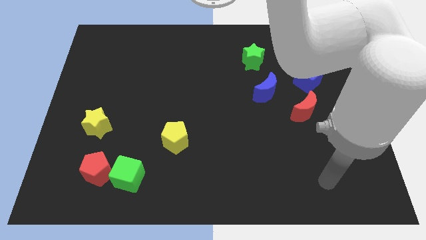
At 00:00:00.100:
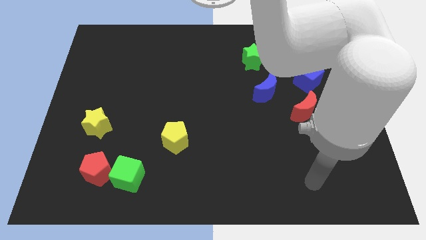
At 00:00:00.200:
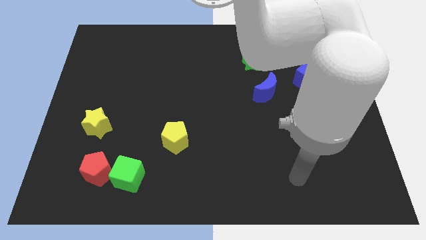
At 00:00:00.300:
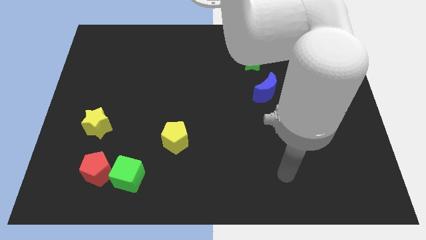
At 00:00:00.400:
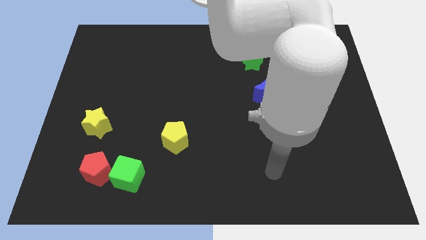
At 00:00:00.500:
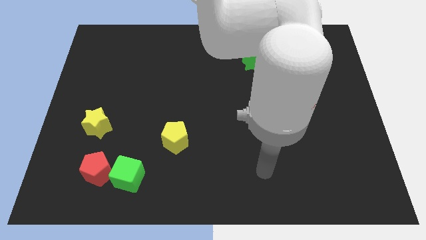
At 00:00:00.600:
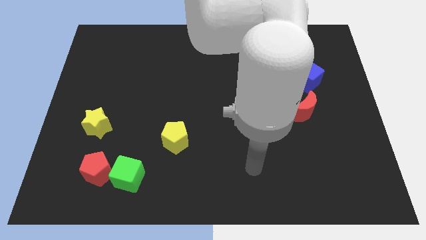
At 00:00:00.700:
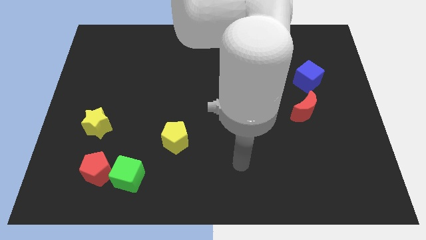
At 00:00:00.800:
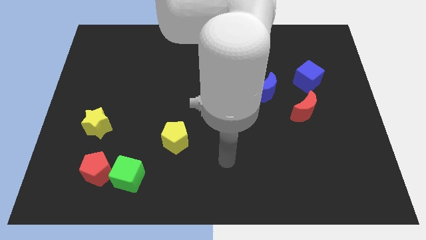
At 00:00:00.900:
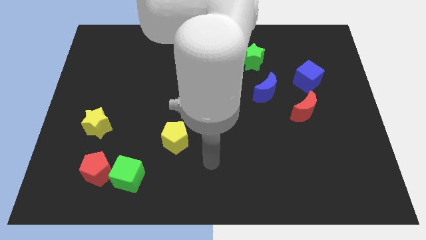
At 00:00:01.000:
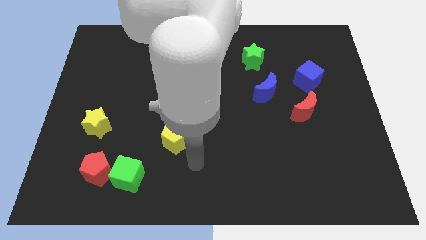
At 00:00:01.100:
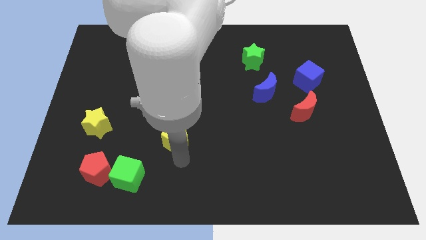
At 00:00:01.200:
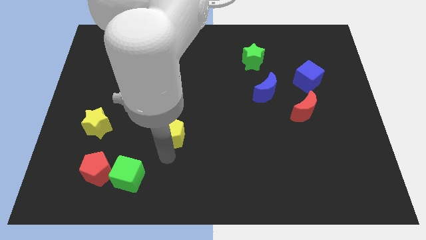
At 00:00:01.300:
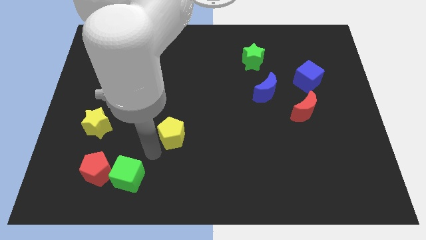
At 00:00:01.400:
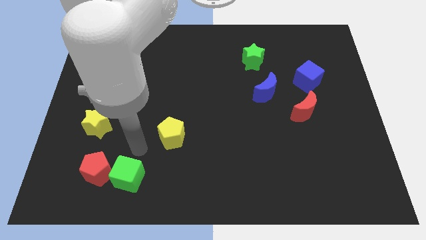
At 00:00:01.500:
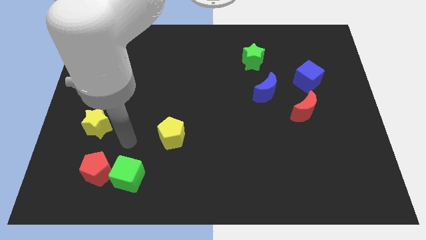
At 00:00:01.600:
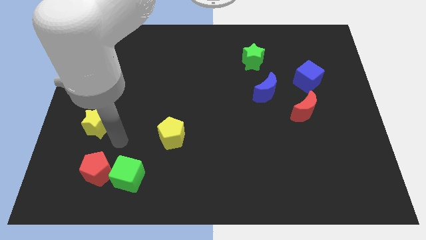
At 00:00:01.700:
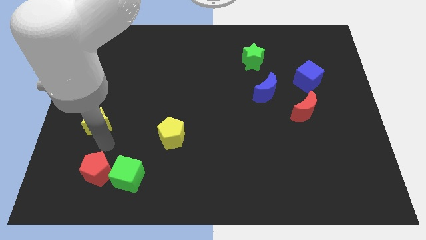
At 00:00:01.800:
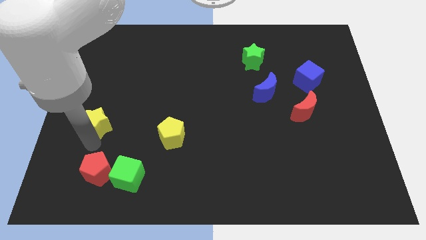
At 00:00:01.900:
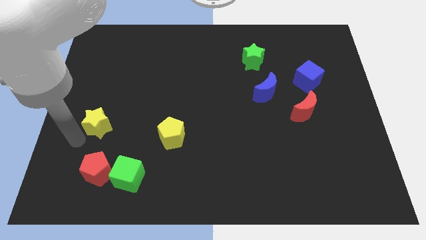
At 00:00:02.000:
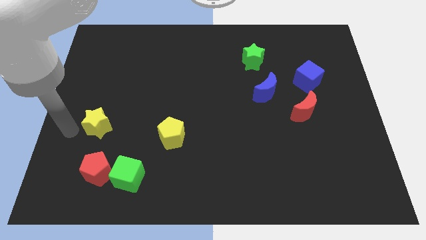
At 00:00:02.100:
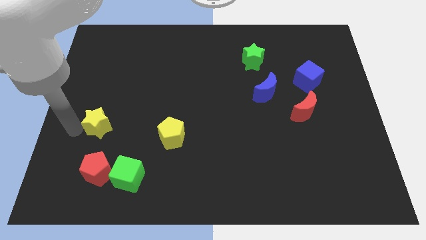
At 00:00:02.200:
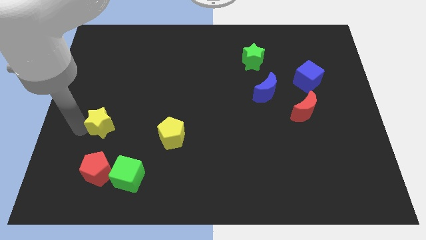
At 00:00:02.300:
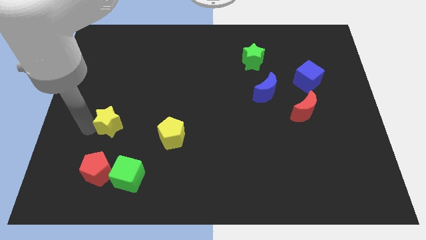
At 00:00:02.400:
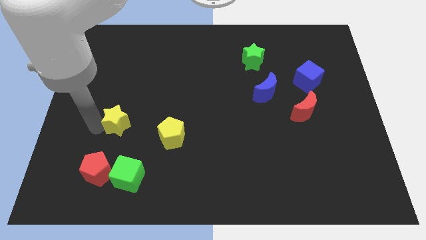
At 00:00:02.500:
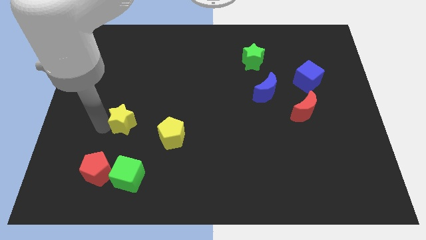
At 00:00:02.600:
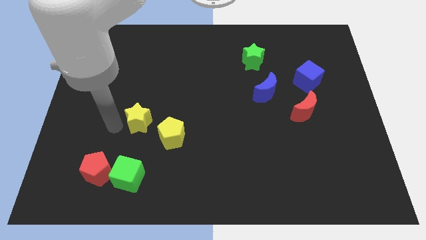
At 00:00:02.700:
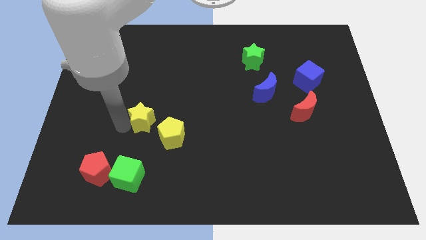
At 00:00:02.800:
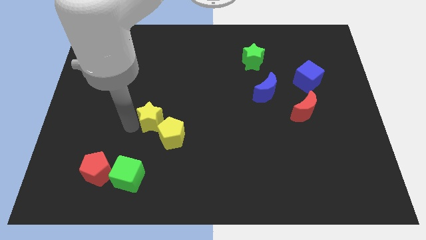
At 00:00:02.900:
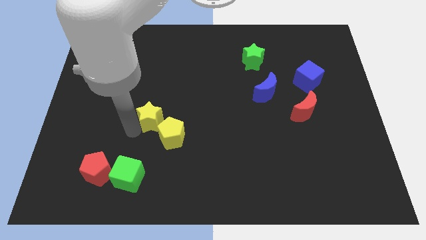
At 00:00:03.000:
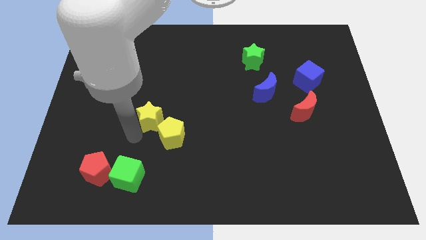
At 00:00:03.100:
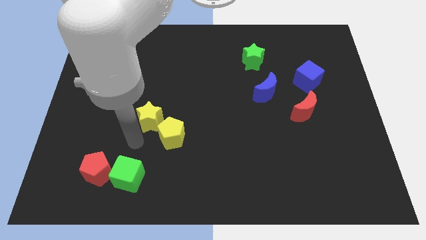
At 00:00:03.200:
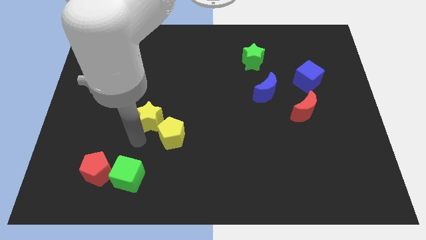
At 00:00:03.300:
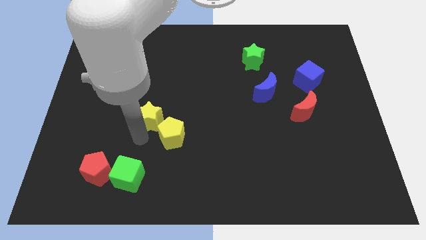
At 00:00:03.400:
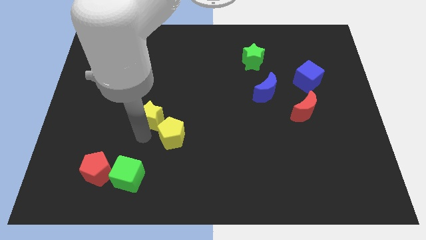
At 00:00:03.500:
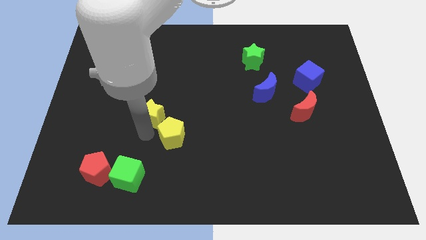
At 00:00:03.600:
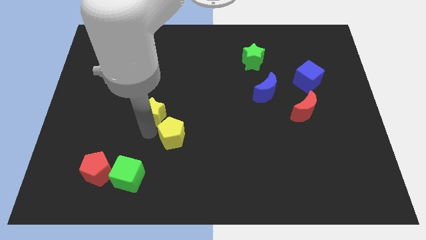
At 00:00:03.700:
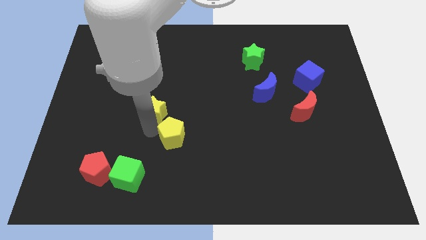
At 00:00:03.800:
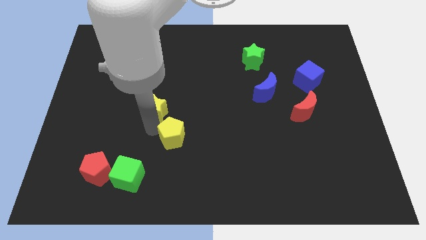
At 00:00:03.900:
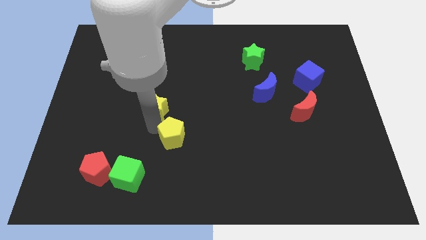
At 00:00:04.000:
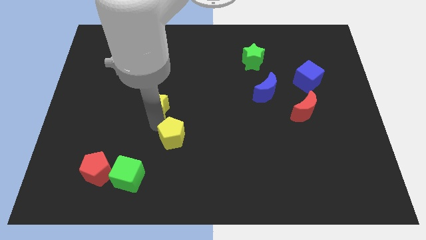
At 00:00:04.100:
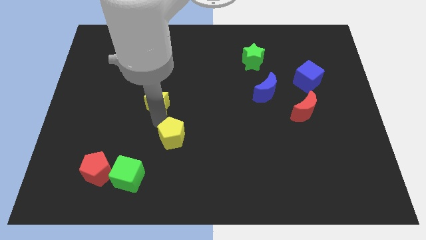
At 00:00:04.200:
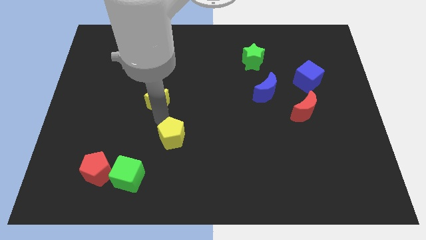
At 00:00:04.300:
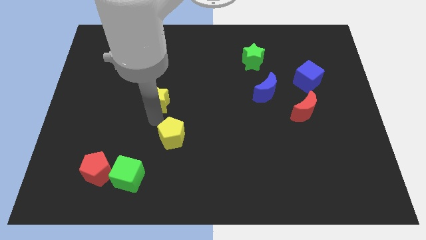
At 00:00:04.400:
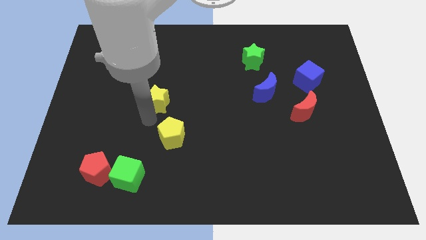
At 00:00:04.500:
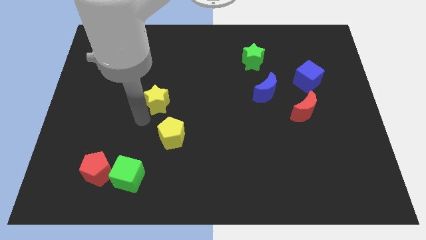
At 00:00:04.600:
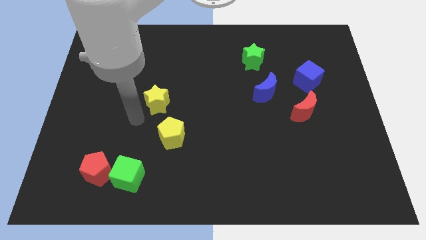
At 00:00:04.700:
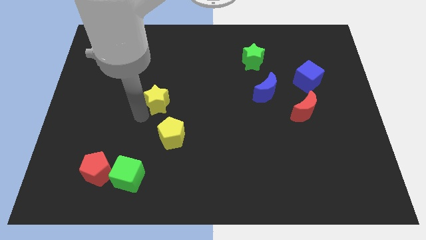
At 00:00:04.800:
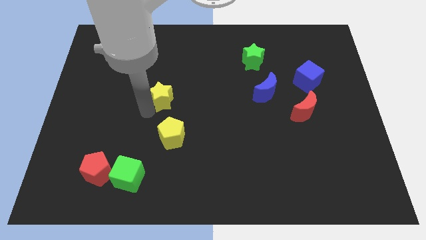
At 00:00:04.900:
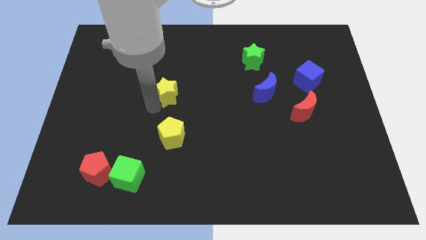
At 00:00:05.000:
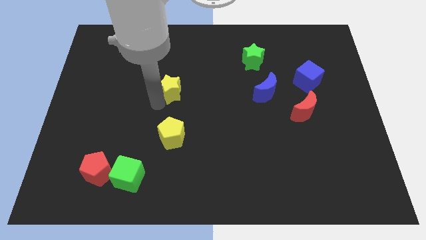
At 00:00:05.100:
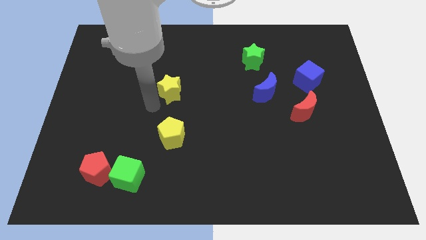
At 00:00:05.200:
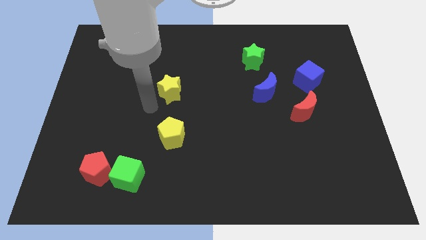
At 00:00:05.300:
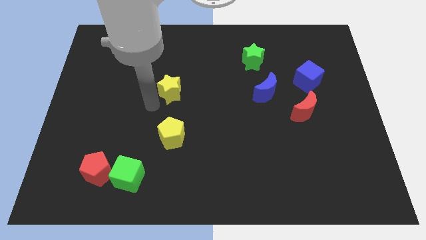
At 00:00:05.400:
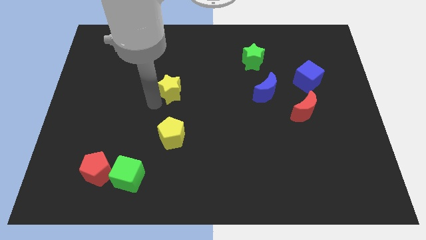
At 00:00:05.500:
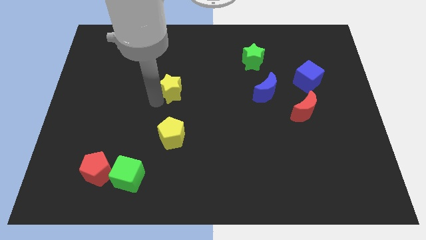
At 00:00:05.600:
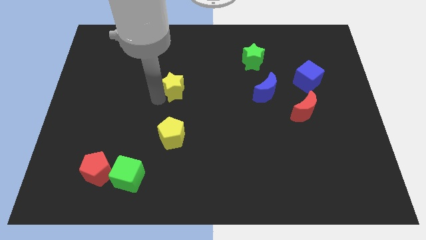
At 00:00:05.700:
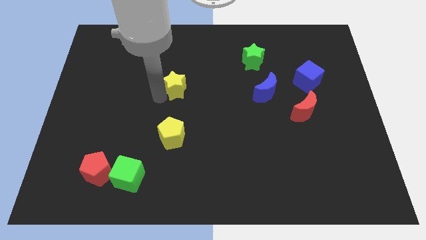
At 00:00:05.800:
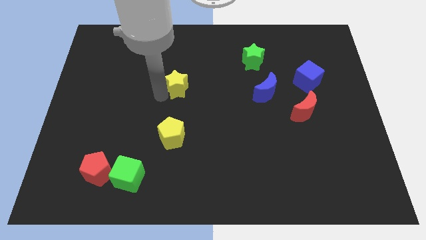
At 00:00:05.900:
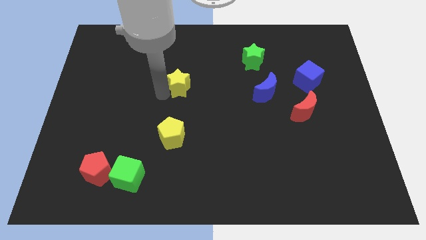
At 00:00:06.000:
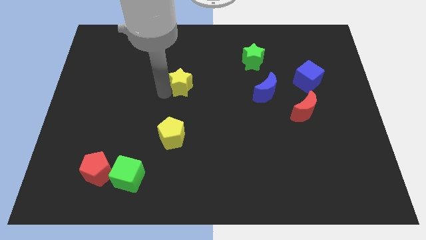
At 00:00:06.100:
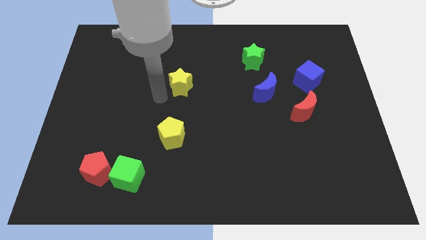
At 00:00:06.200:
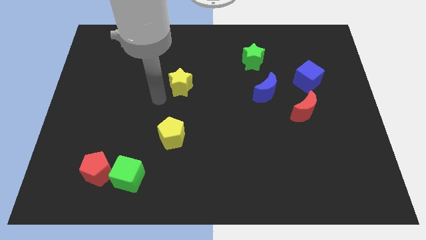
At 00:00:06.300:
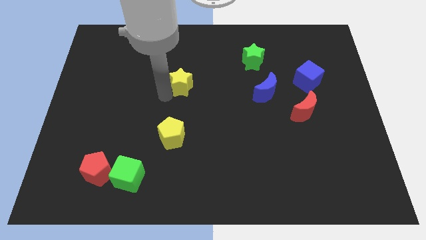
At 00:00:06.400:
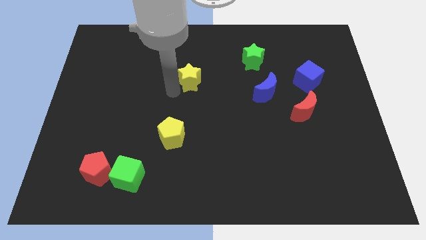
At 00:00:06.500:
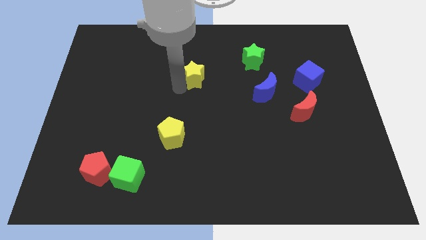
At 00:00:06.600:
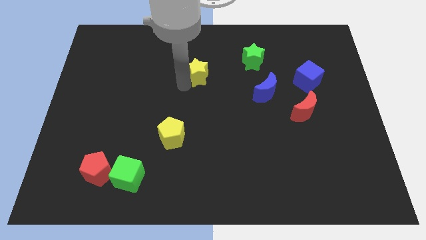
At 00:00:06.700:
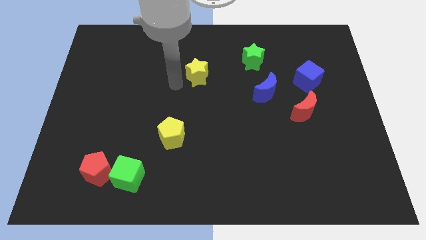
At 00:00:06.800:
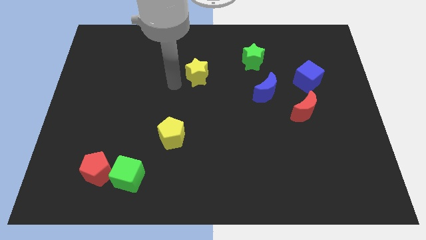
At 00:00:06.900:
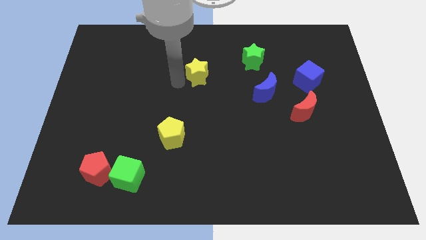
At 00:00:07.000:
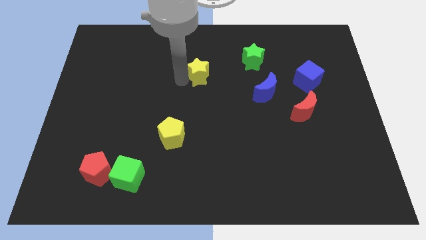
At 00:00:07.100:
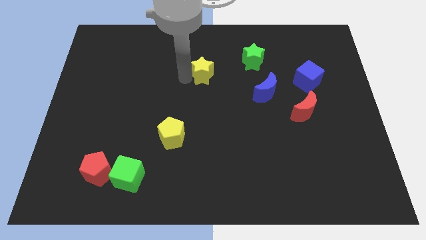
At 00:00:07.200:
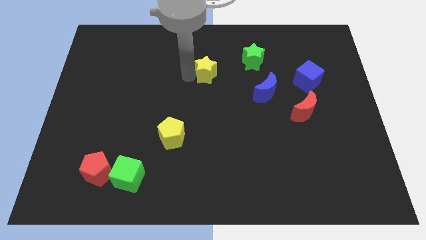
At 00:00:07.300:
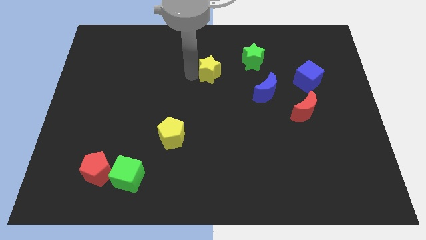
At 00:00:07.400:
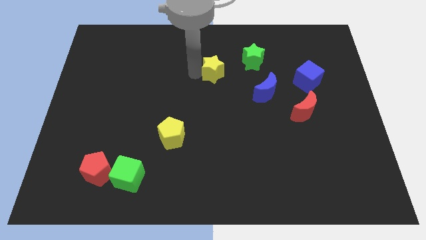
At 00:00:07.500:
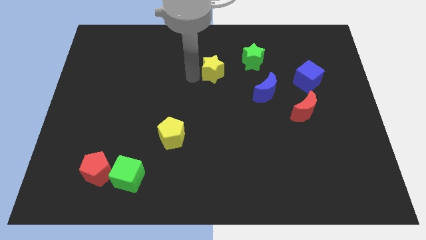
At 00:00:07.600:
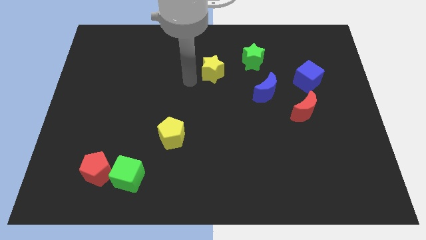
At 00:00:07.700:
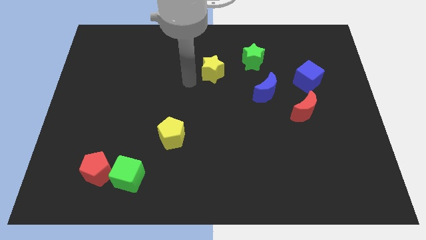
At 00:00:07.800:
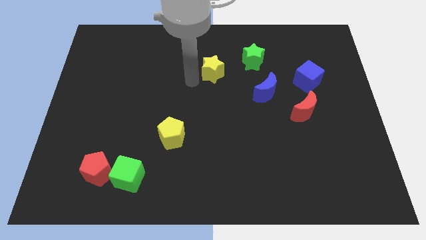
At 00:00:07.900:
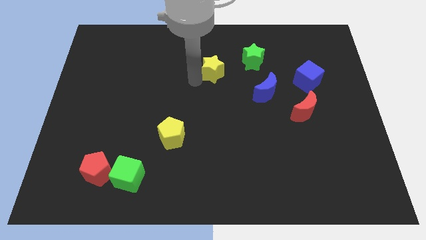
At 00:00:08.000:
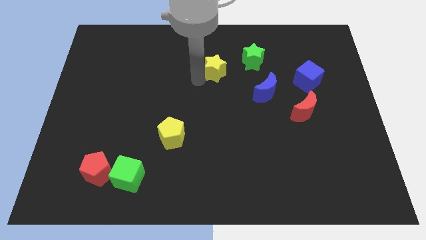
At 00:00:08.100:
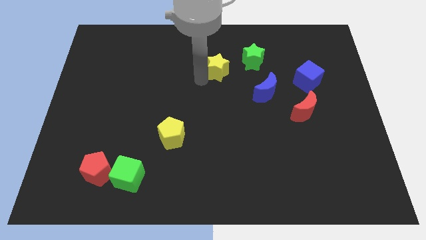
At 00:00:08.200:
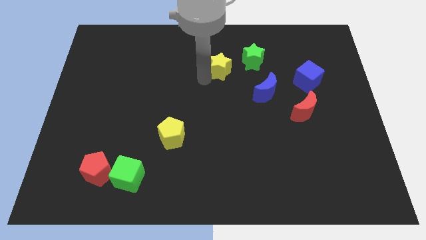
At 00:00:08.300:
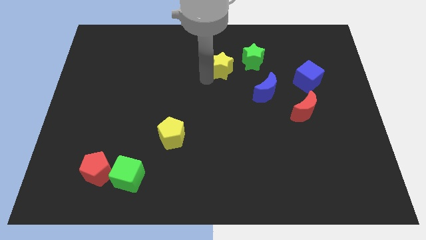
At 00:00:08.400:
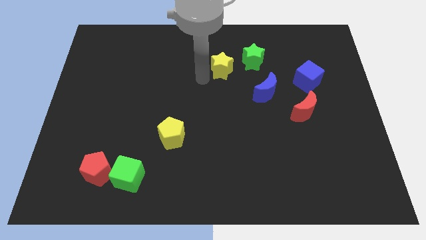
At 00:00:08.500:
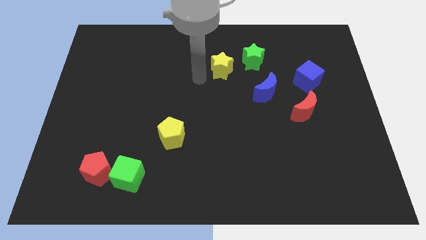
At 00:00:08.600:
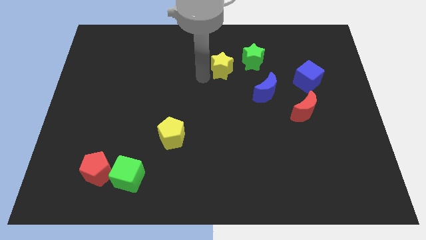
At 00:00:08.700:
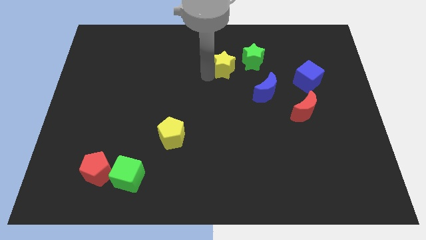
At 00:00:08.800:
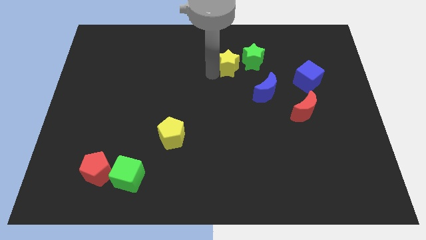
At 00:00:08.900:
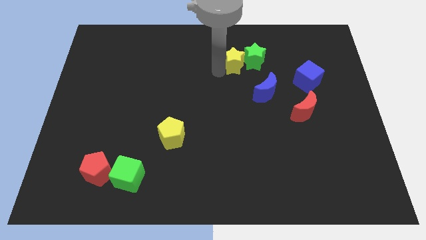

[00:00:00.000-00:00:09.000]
put the yellow star to the green star
